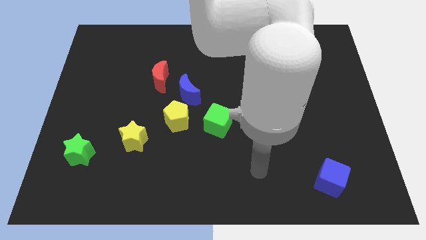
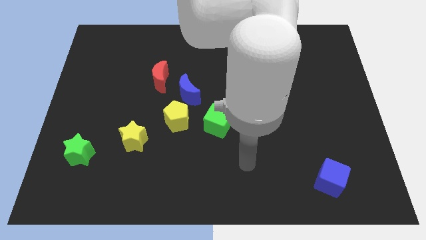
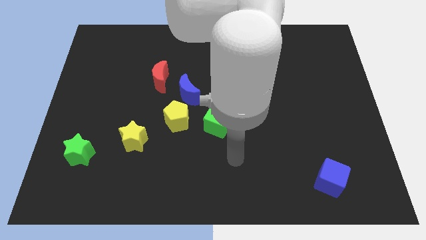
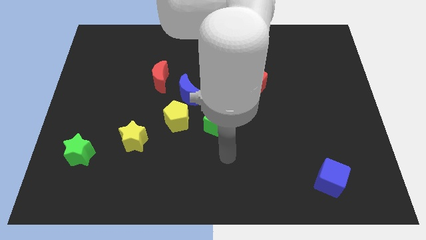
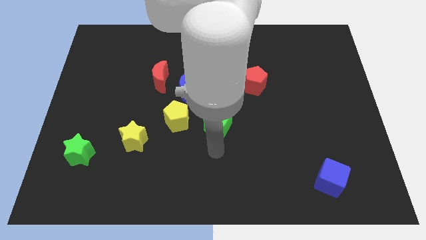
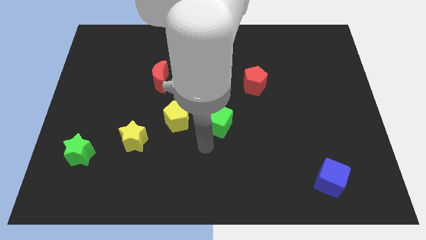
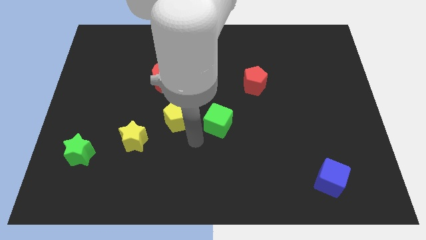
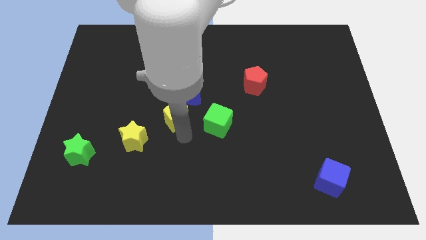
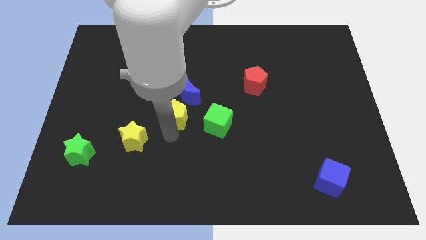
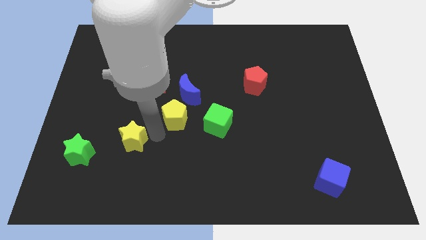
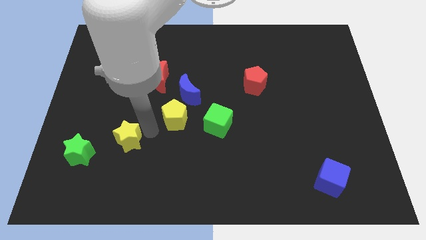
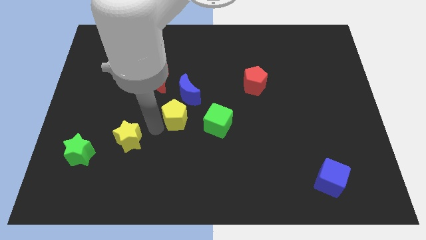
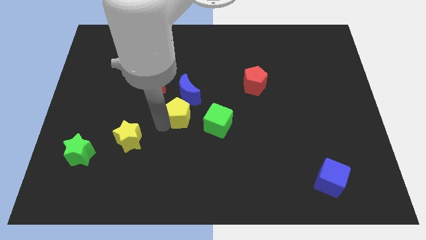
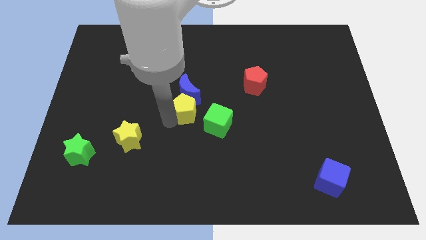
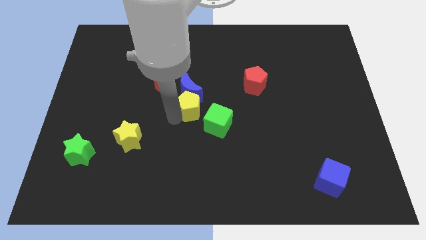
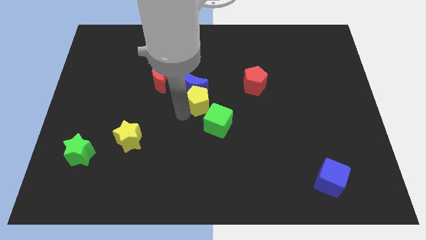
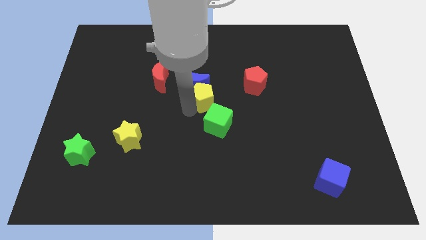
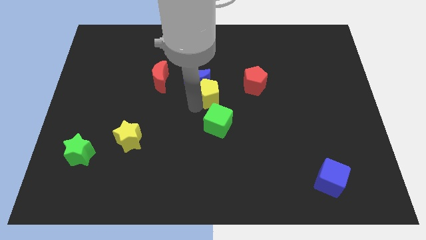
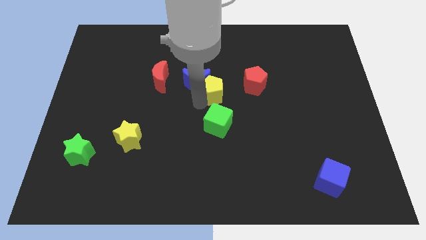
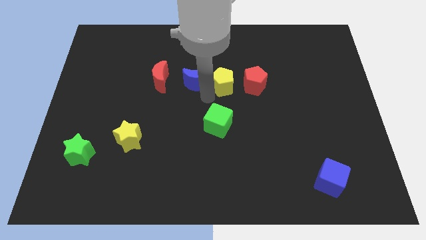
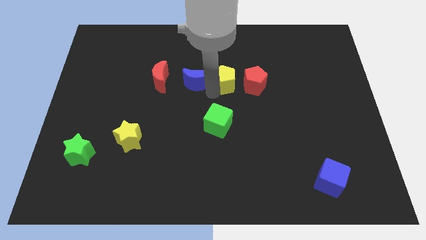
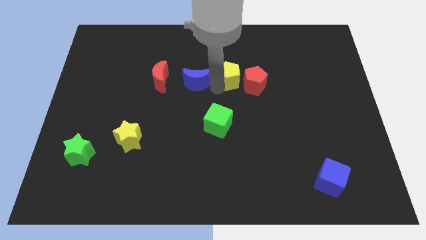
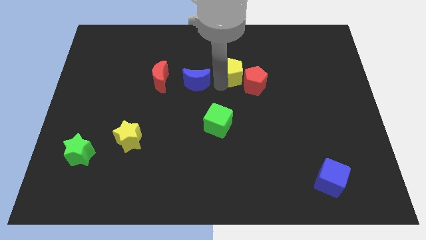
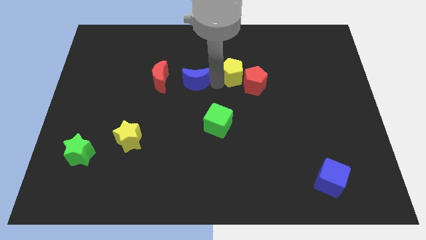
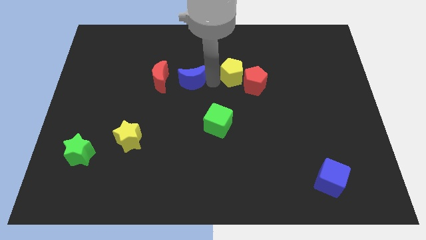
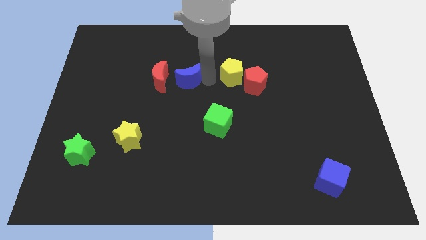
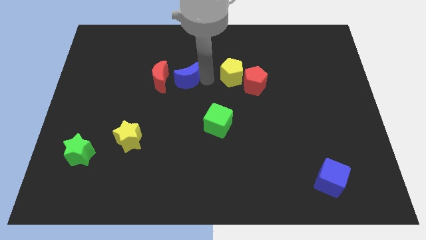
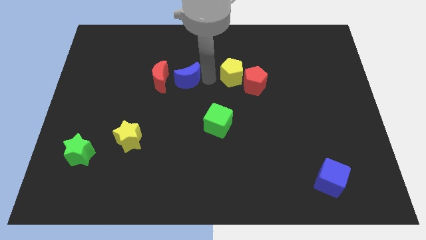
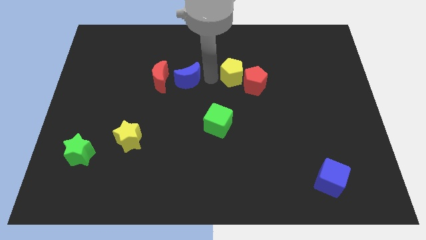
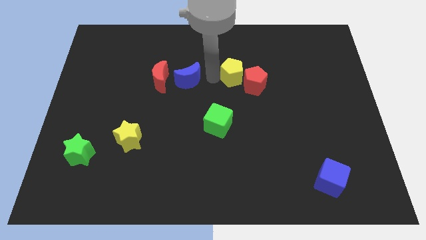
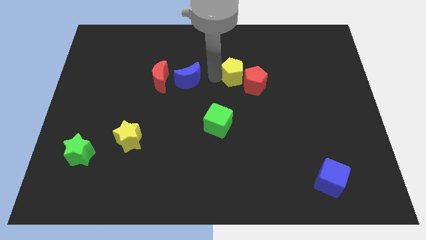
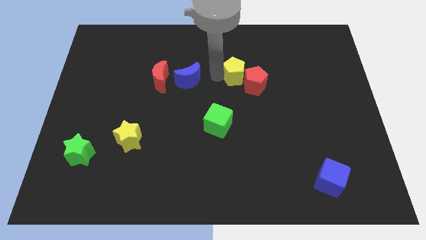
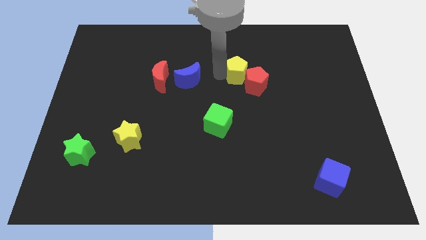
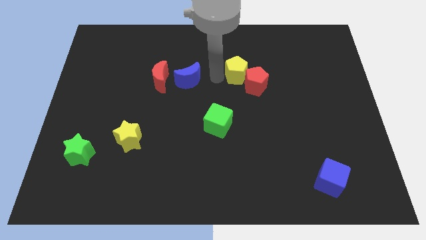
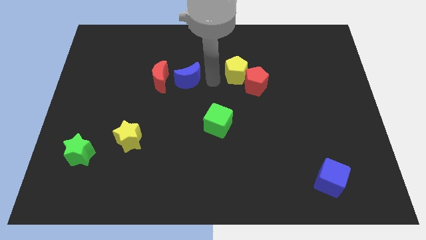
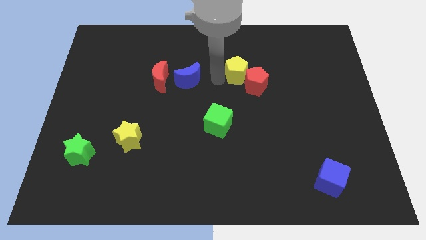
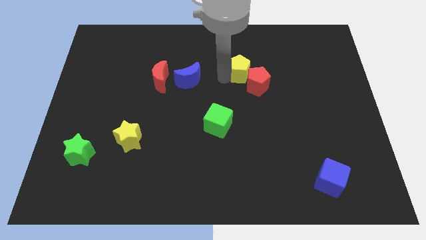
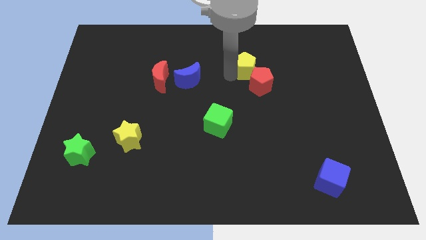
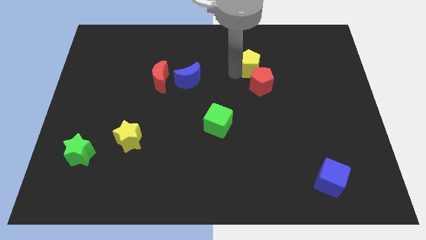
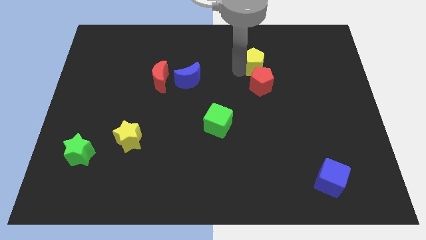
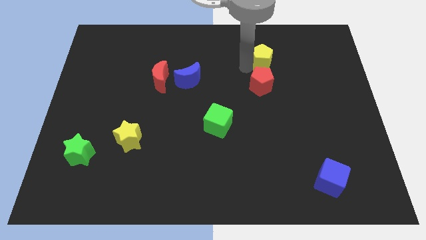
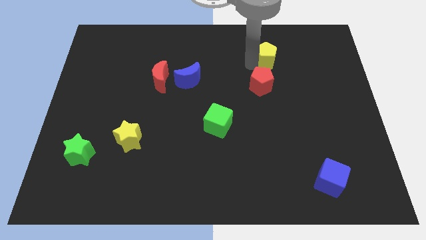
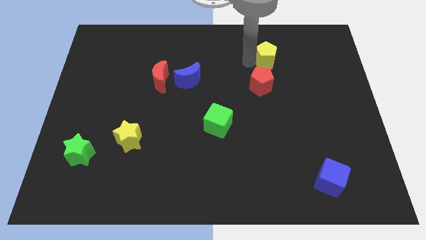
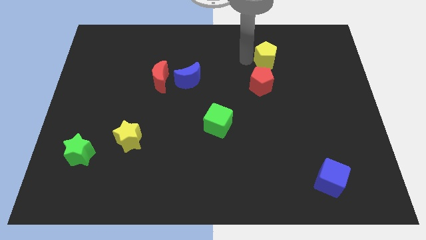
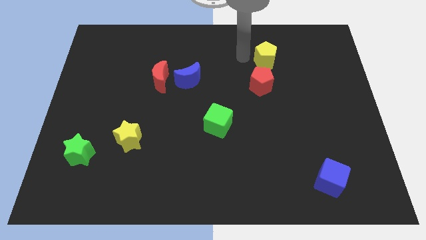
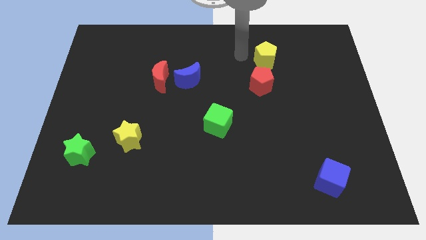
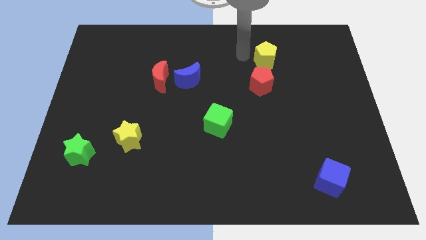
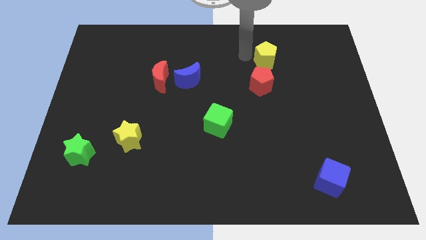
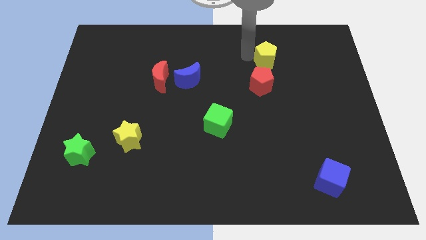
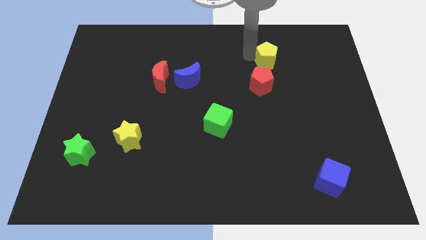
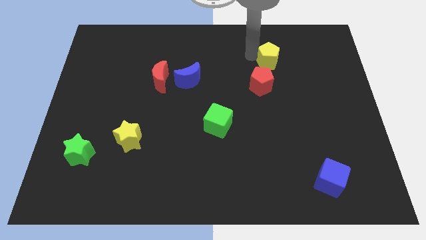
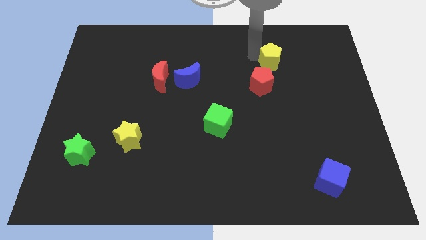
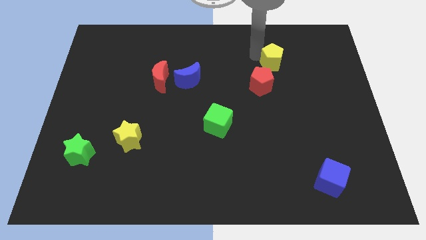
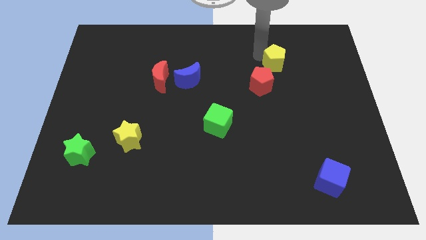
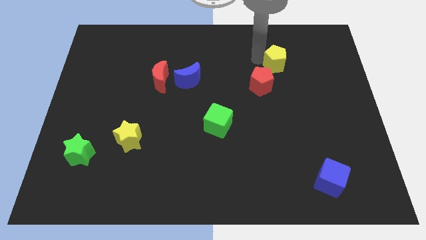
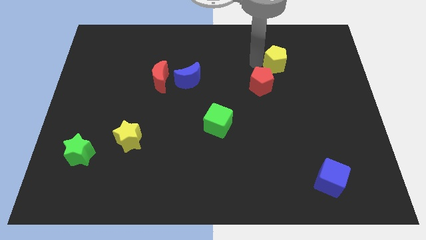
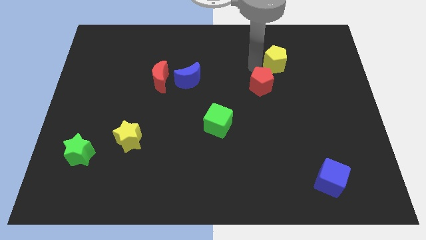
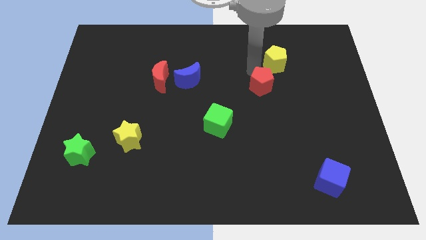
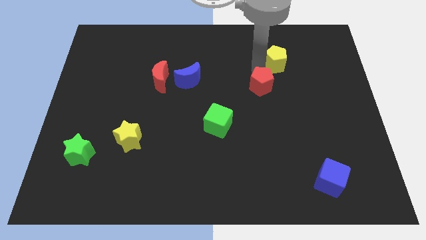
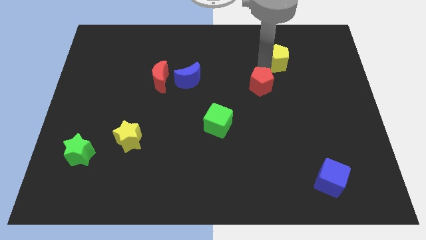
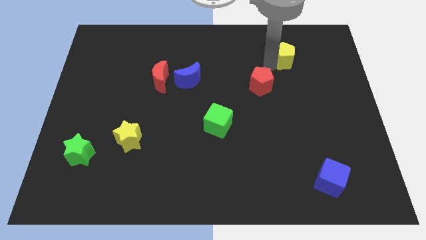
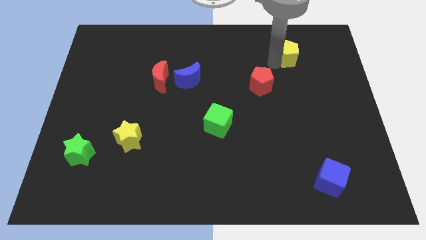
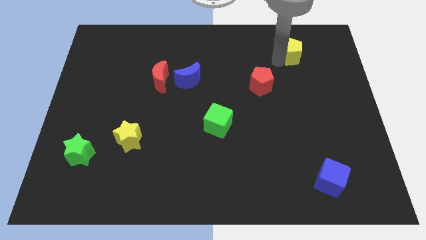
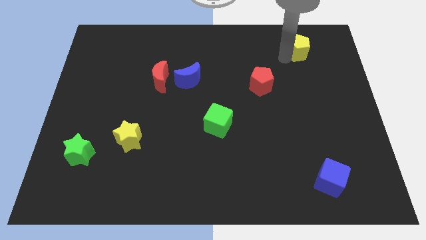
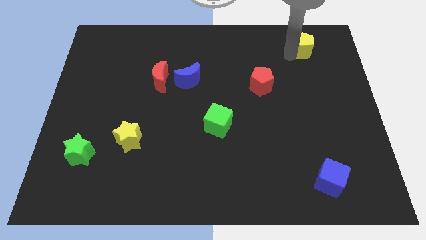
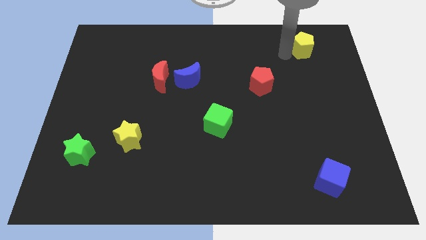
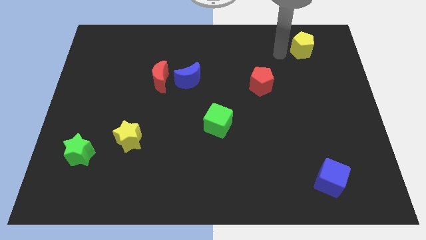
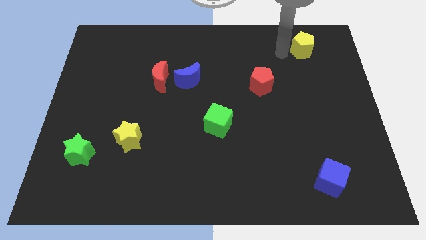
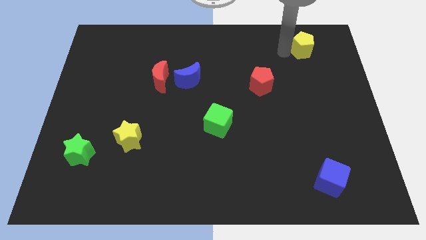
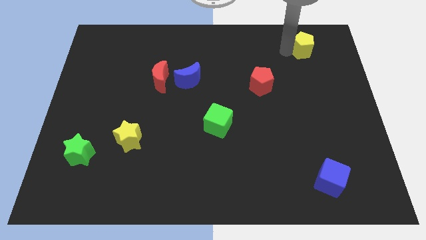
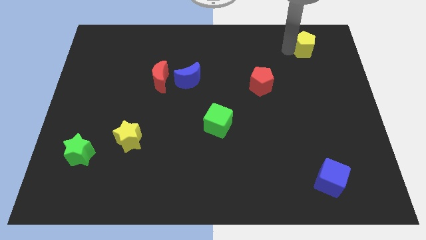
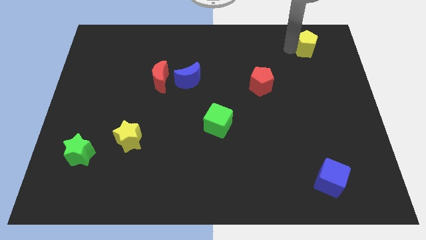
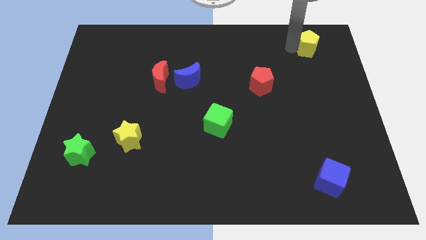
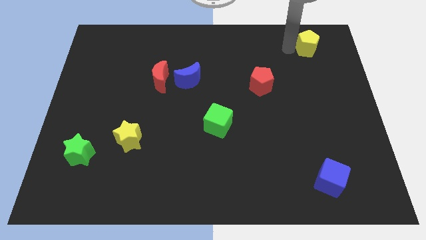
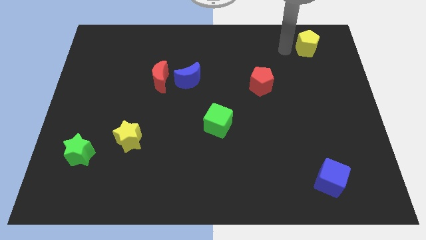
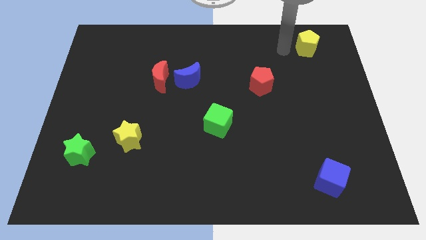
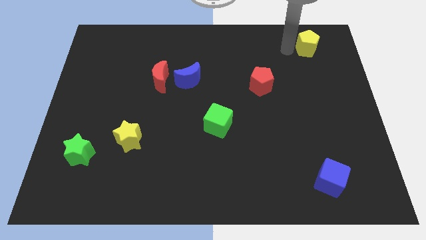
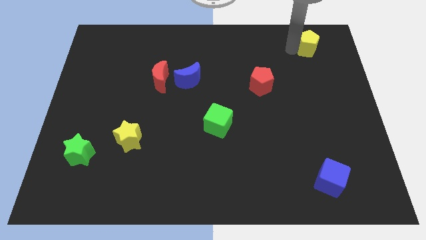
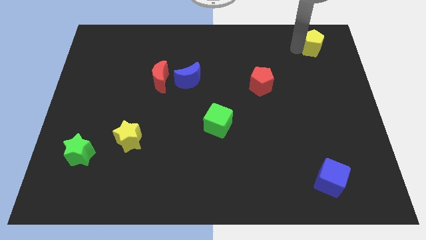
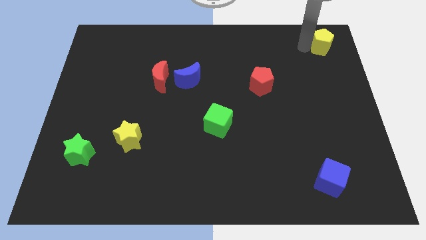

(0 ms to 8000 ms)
move the yellow pentagon to the top right corner
